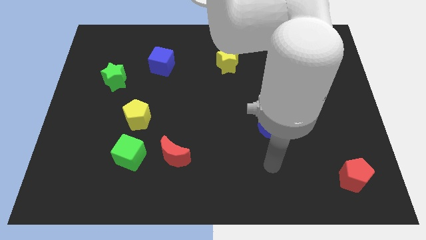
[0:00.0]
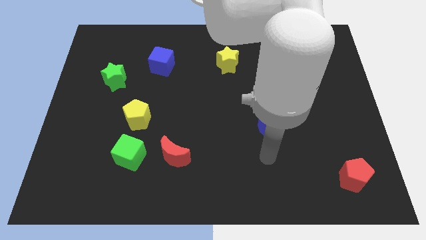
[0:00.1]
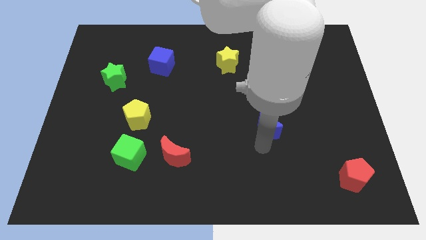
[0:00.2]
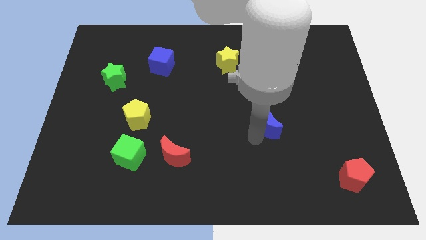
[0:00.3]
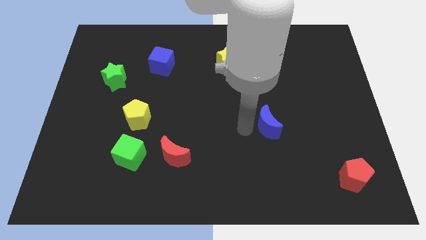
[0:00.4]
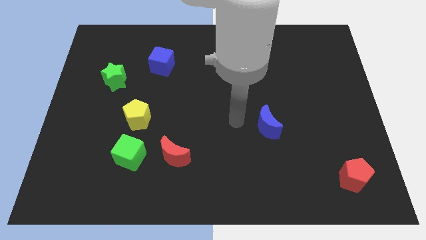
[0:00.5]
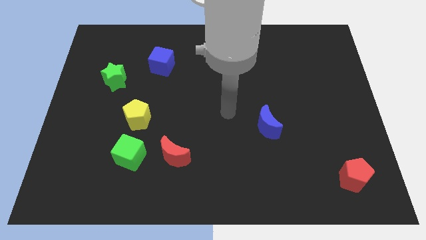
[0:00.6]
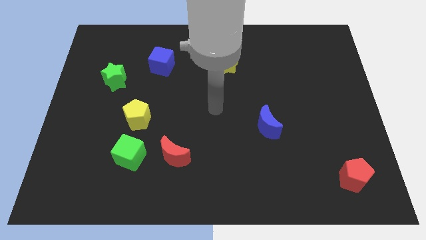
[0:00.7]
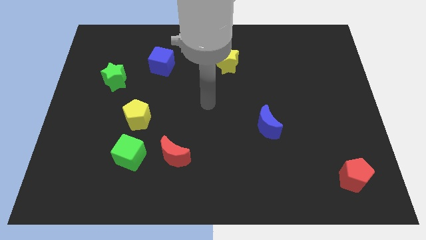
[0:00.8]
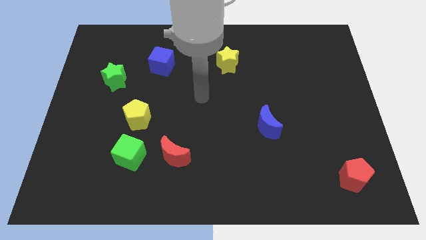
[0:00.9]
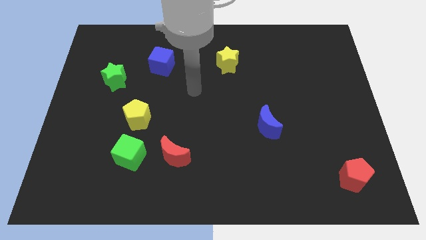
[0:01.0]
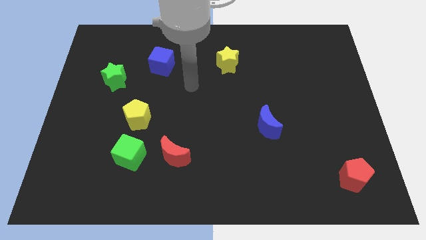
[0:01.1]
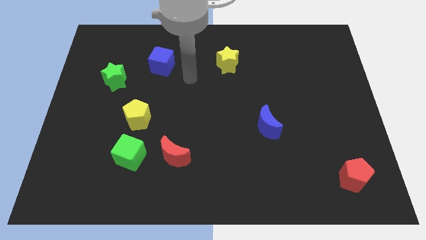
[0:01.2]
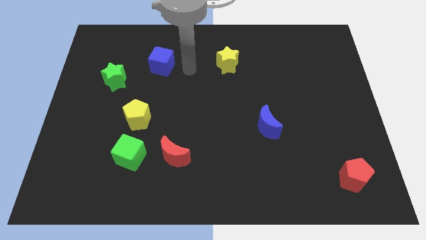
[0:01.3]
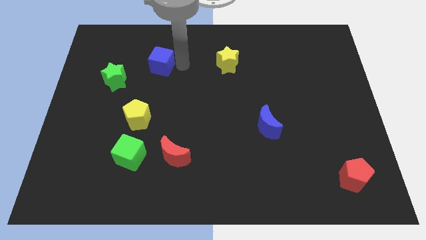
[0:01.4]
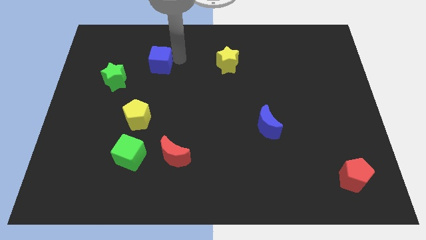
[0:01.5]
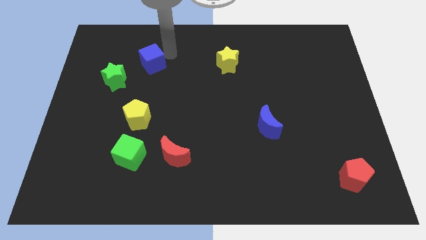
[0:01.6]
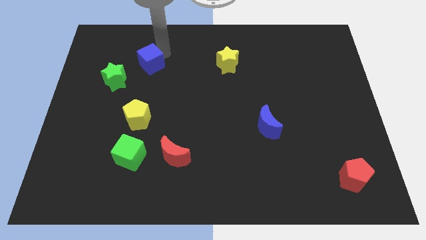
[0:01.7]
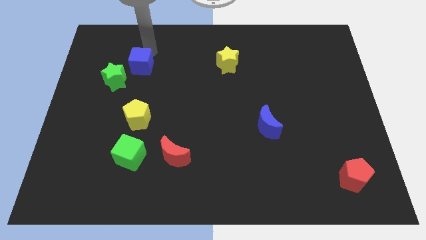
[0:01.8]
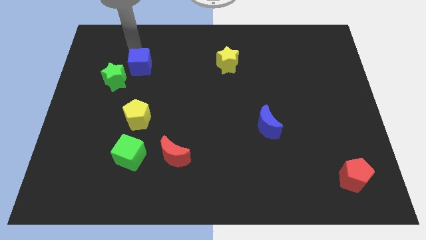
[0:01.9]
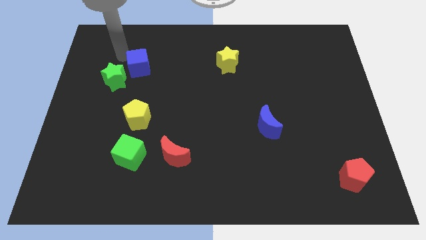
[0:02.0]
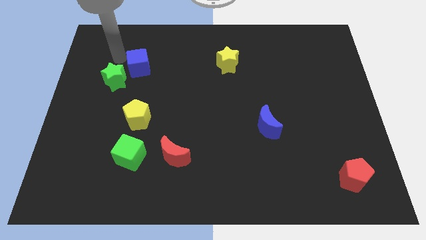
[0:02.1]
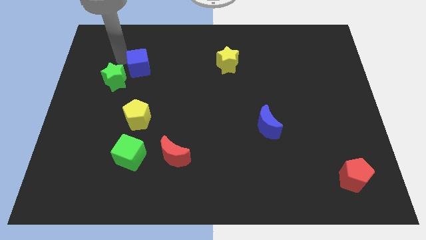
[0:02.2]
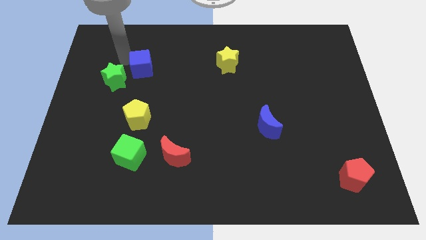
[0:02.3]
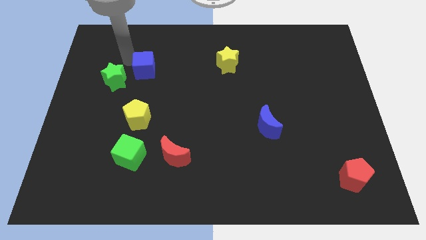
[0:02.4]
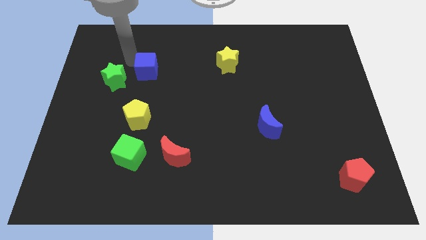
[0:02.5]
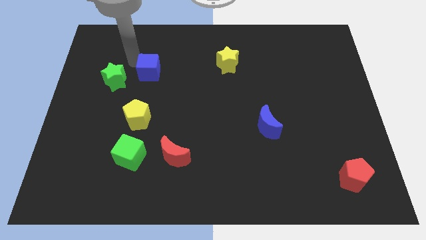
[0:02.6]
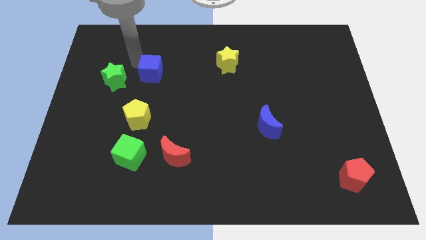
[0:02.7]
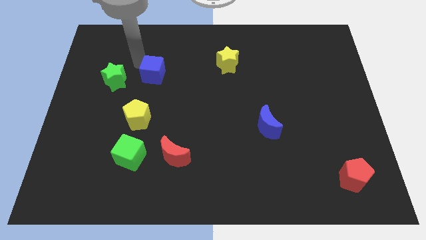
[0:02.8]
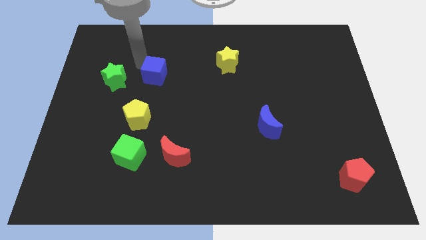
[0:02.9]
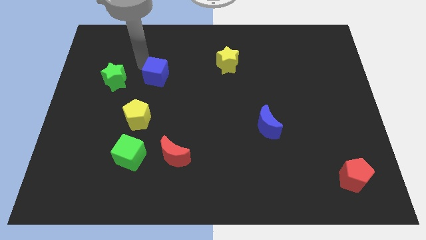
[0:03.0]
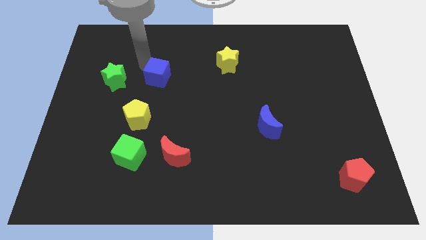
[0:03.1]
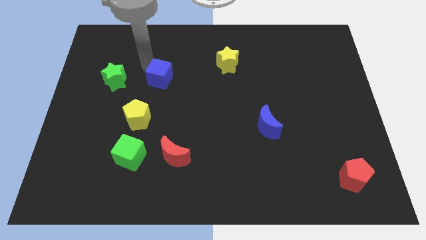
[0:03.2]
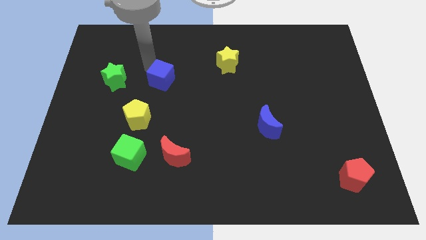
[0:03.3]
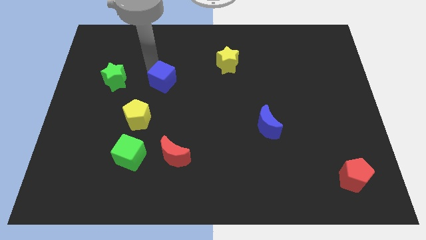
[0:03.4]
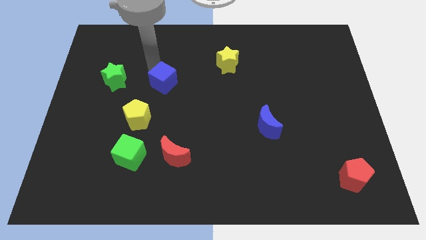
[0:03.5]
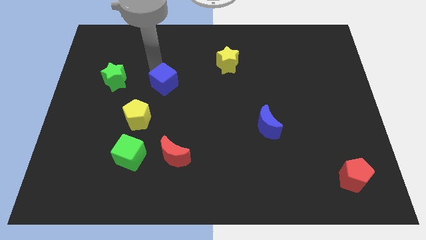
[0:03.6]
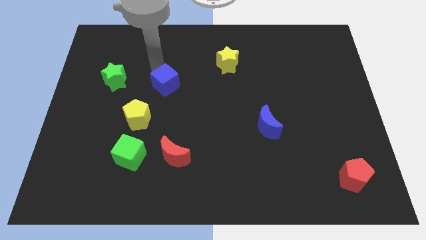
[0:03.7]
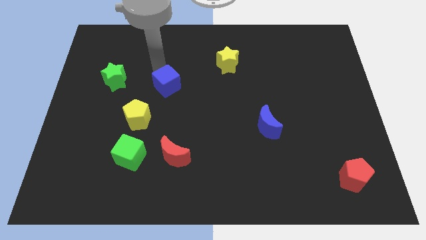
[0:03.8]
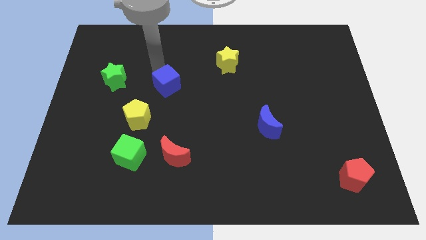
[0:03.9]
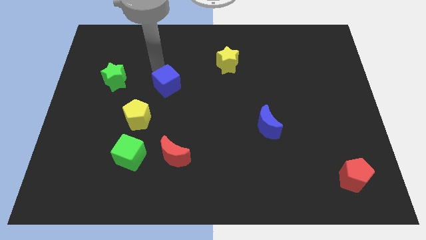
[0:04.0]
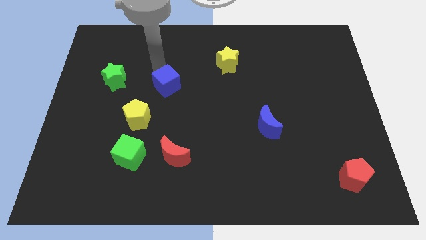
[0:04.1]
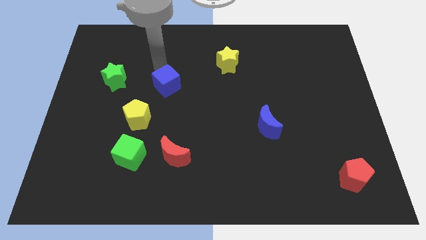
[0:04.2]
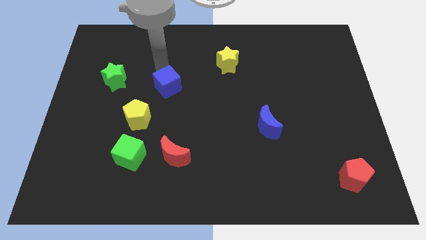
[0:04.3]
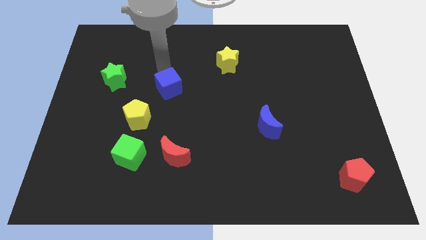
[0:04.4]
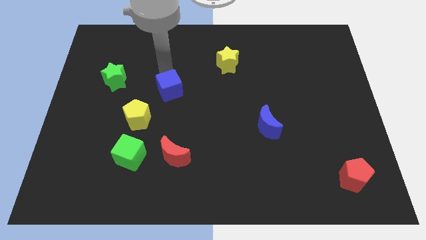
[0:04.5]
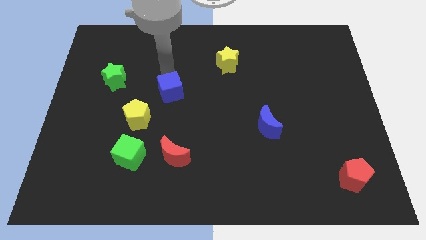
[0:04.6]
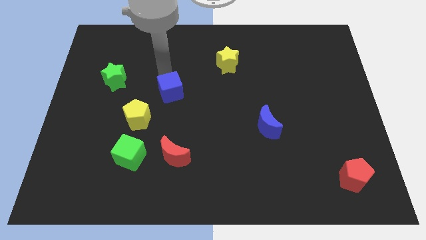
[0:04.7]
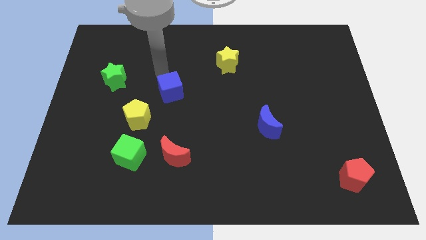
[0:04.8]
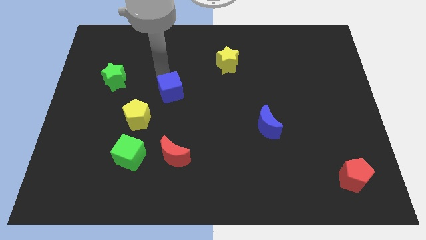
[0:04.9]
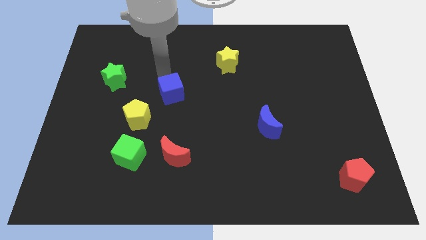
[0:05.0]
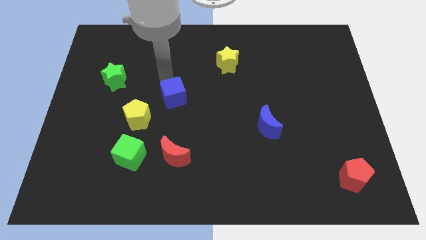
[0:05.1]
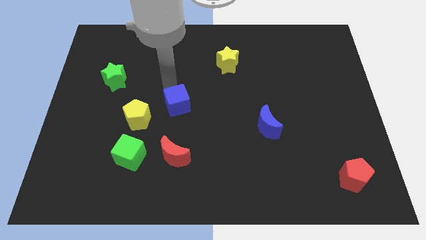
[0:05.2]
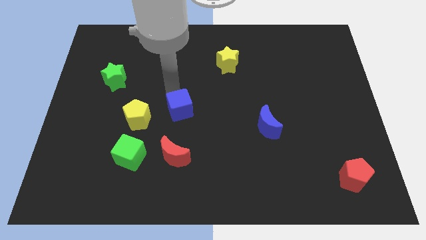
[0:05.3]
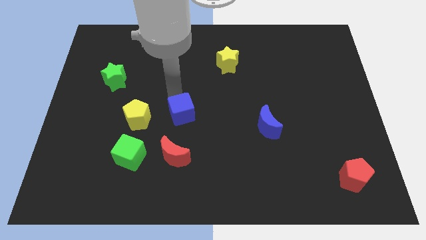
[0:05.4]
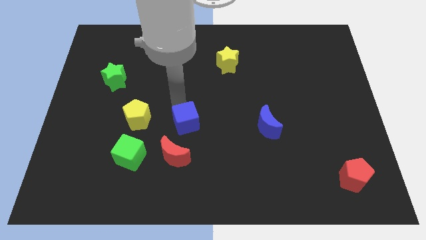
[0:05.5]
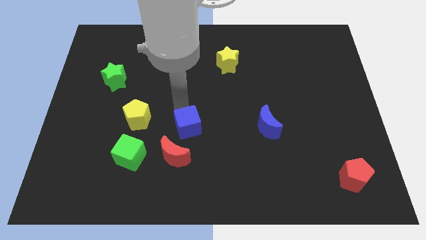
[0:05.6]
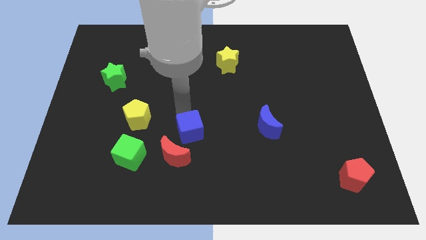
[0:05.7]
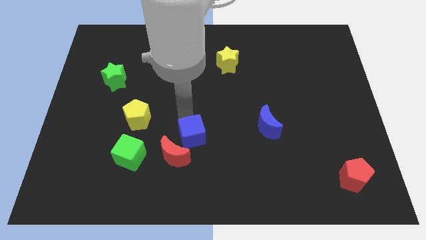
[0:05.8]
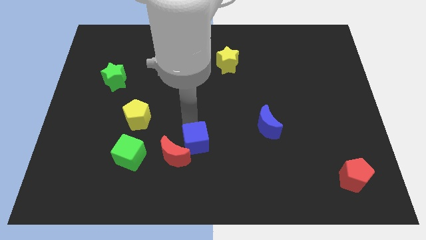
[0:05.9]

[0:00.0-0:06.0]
push the blue cube to the right of the green cube

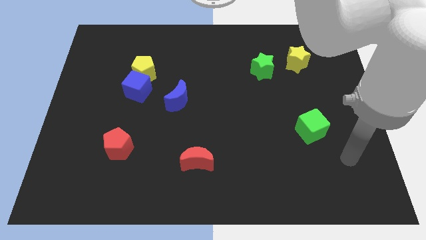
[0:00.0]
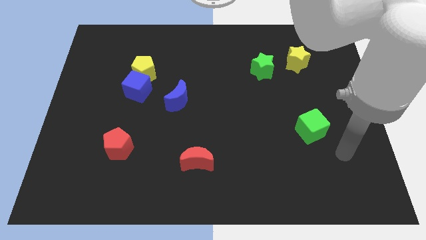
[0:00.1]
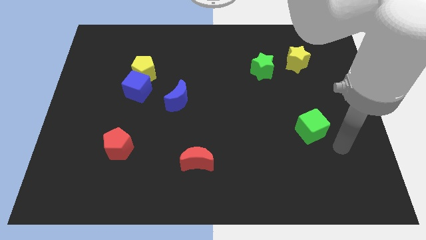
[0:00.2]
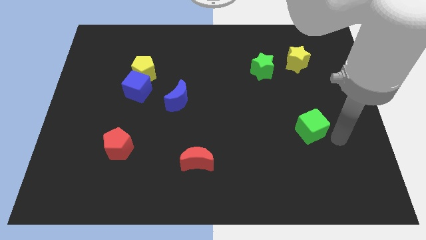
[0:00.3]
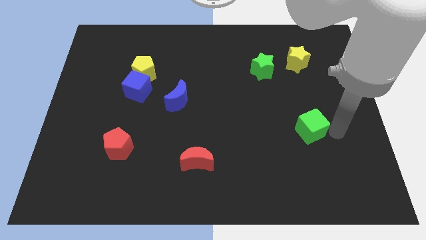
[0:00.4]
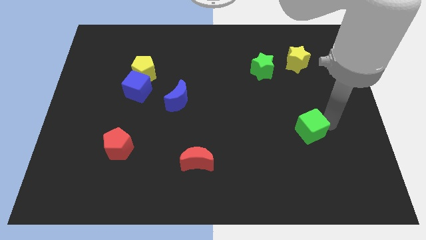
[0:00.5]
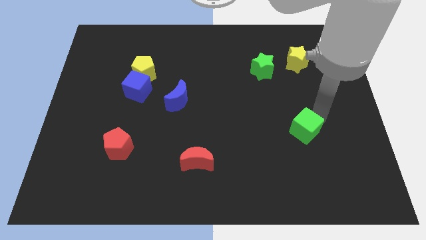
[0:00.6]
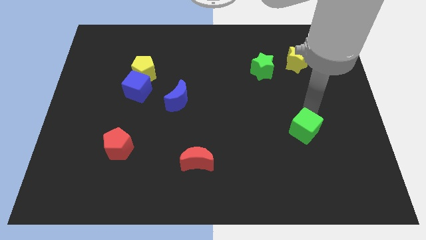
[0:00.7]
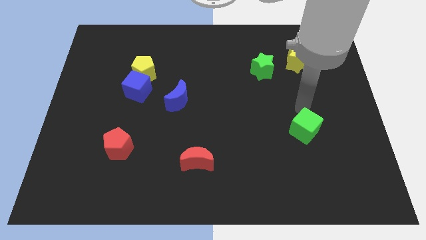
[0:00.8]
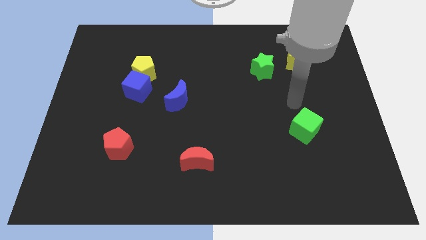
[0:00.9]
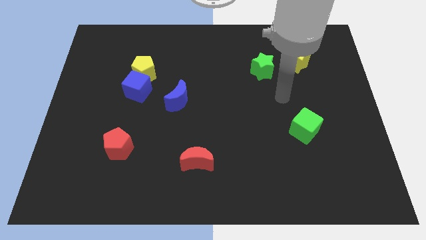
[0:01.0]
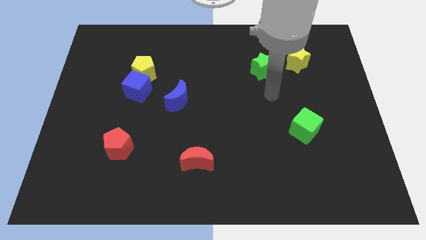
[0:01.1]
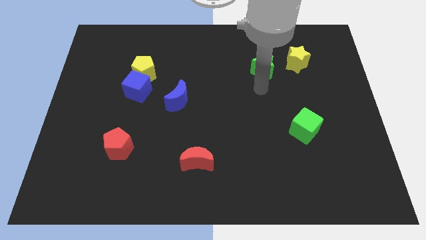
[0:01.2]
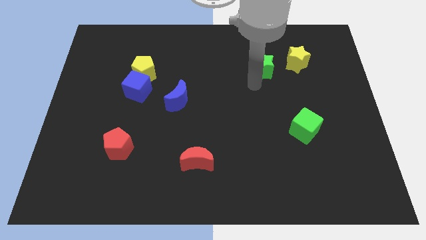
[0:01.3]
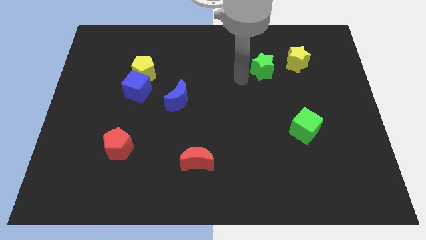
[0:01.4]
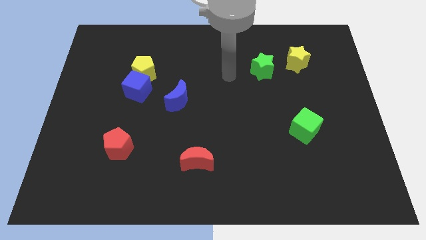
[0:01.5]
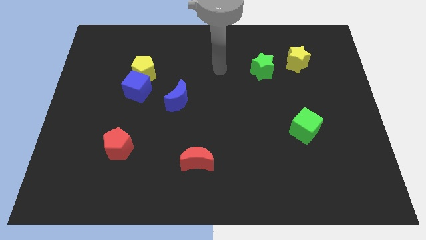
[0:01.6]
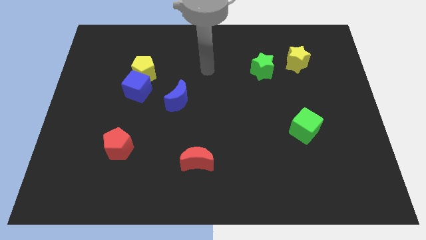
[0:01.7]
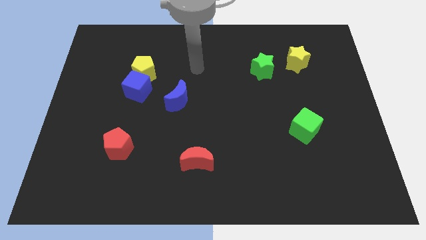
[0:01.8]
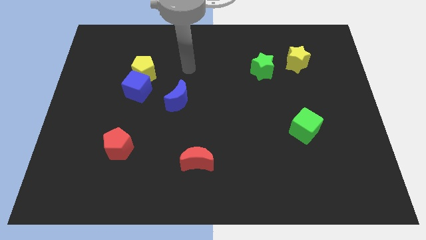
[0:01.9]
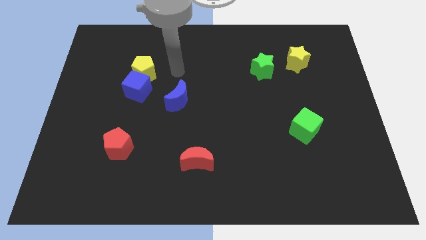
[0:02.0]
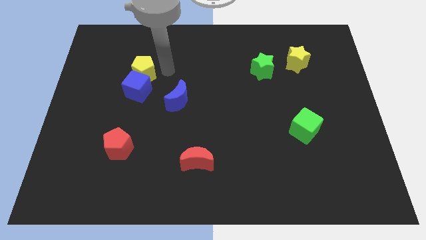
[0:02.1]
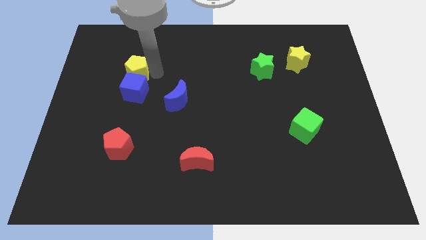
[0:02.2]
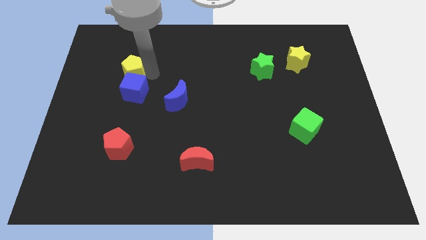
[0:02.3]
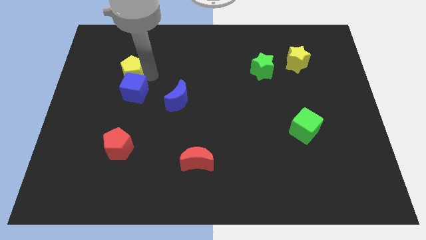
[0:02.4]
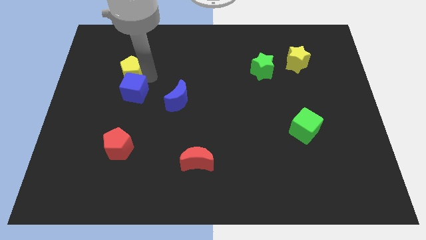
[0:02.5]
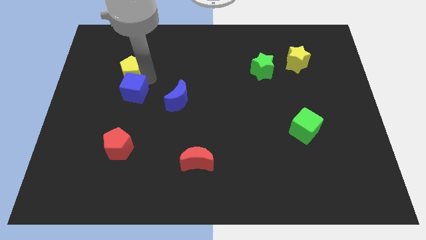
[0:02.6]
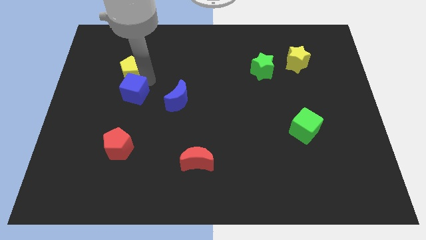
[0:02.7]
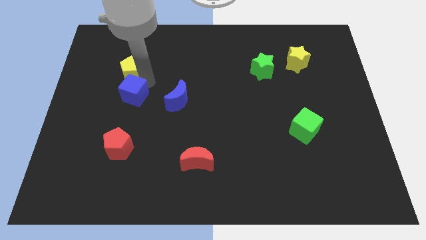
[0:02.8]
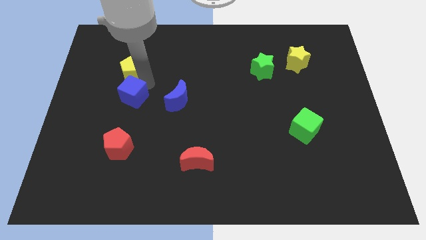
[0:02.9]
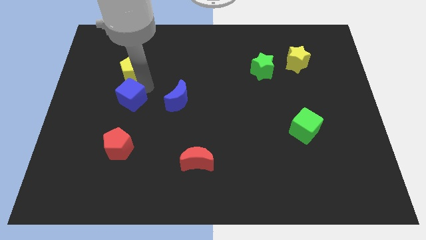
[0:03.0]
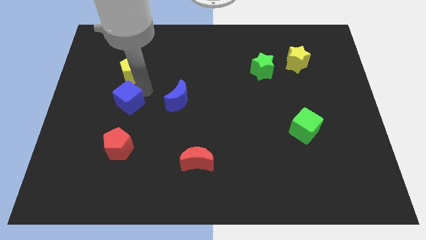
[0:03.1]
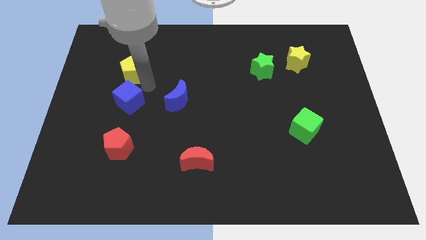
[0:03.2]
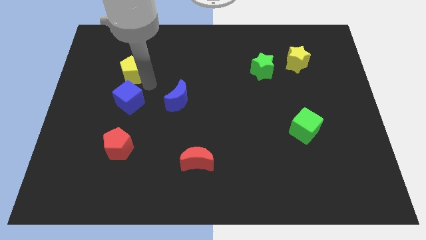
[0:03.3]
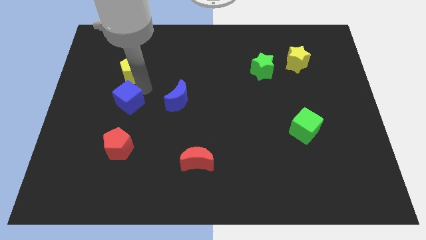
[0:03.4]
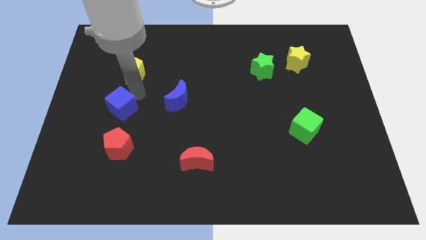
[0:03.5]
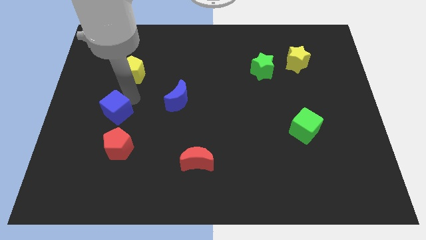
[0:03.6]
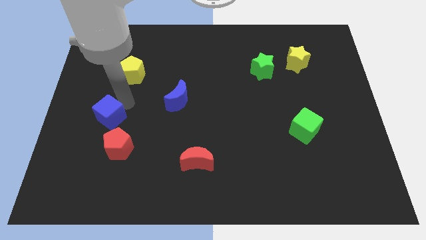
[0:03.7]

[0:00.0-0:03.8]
put the blue cube to the top left side of the red pentagon
